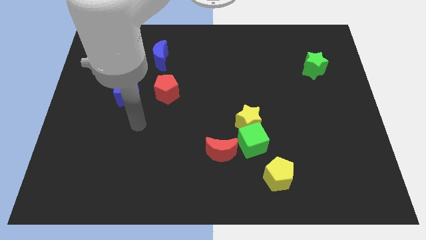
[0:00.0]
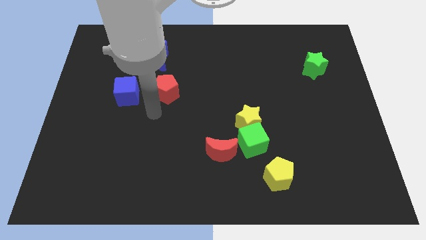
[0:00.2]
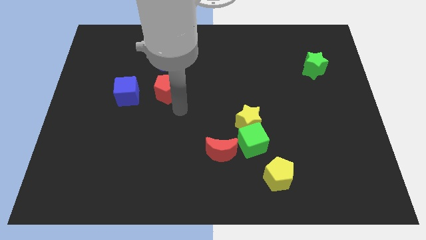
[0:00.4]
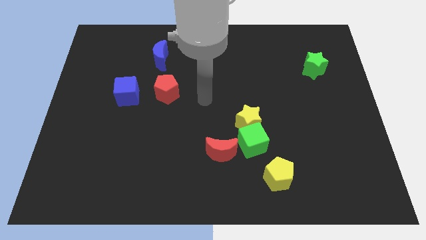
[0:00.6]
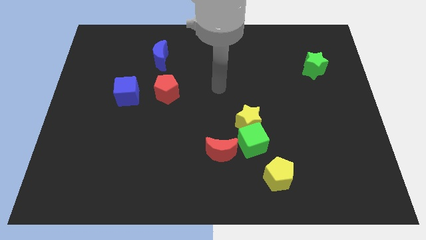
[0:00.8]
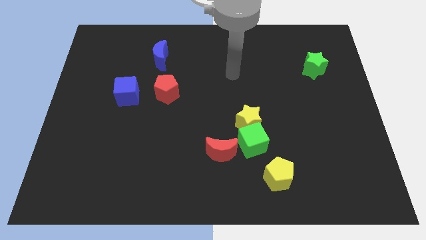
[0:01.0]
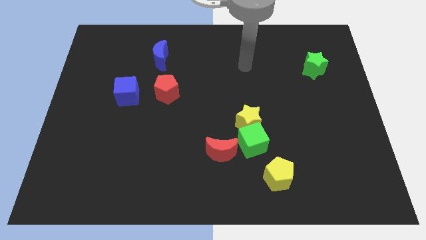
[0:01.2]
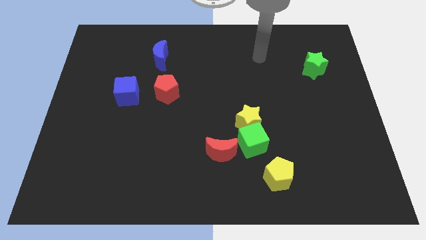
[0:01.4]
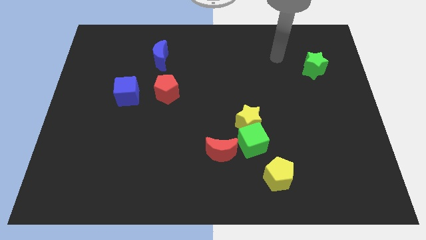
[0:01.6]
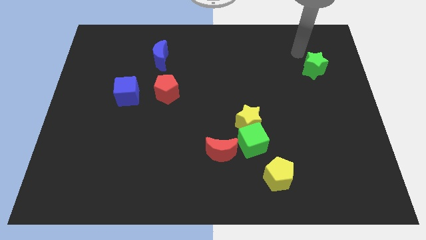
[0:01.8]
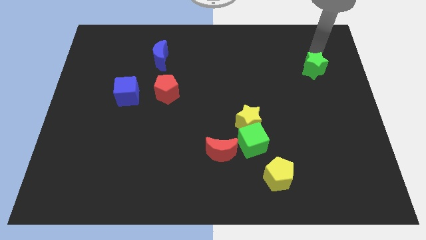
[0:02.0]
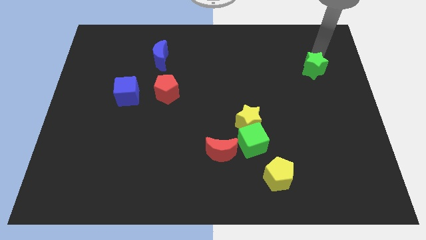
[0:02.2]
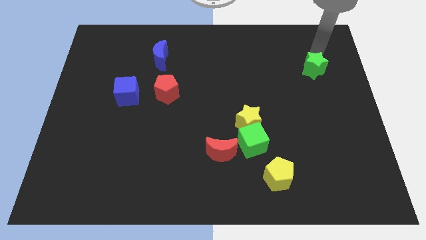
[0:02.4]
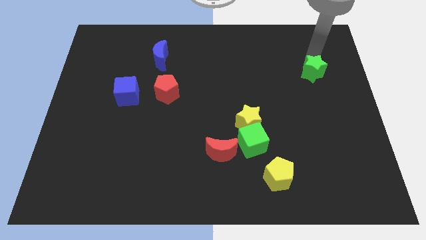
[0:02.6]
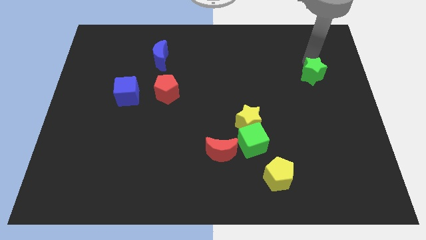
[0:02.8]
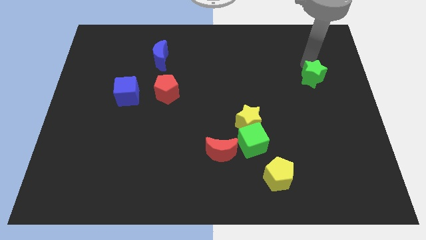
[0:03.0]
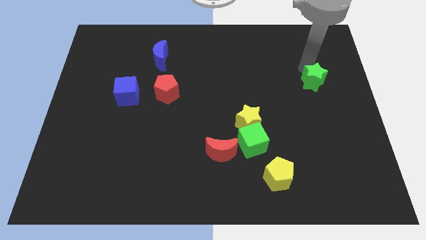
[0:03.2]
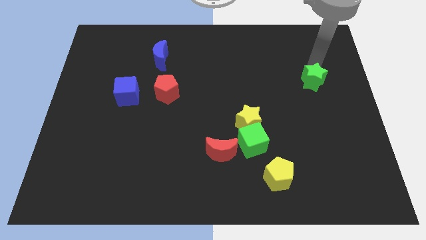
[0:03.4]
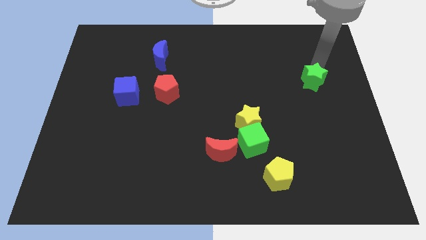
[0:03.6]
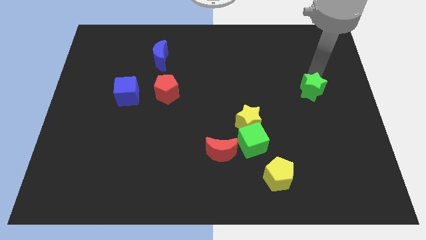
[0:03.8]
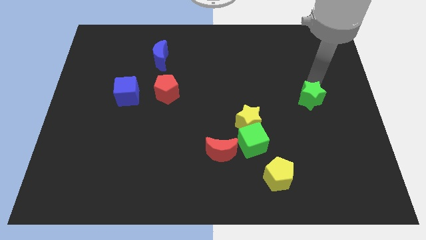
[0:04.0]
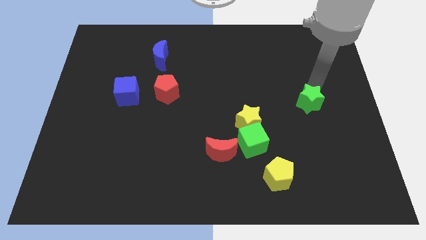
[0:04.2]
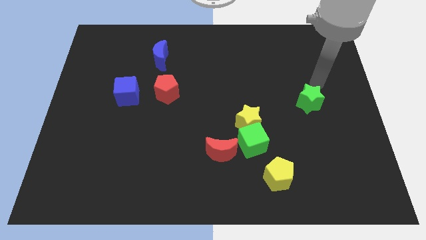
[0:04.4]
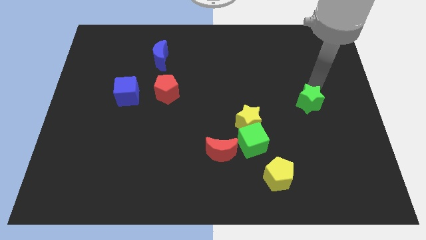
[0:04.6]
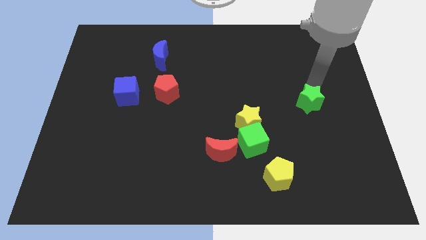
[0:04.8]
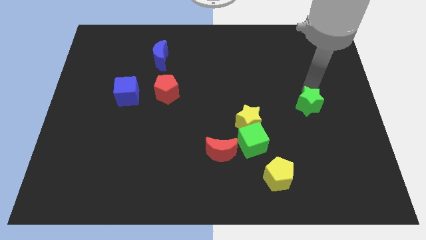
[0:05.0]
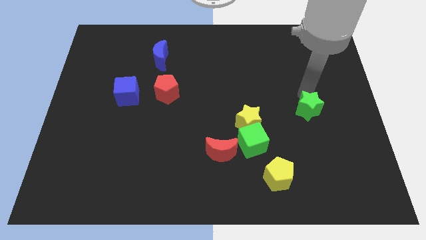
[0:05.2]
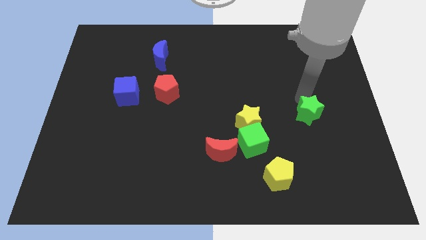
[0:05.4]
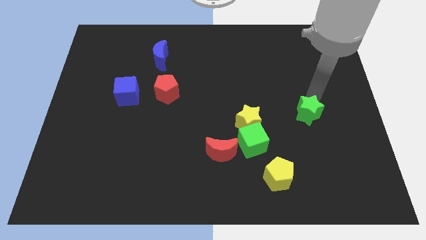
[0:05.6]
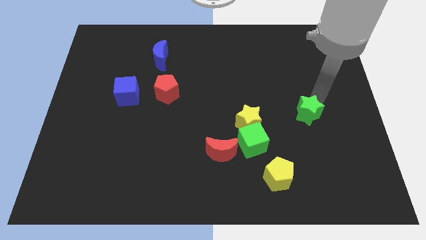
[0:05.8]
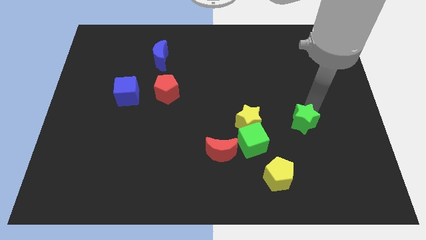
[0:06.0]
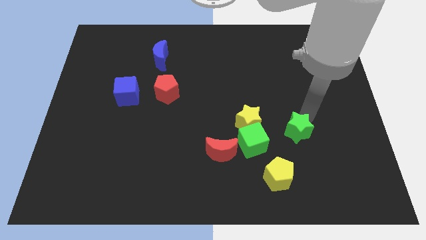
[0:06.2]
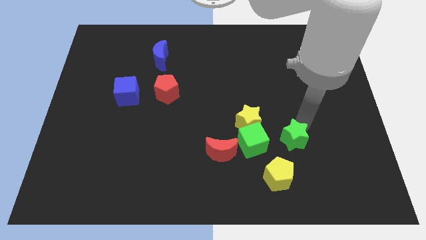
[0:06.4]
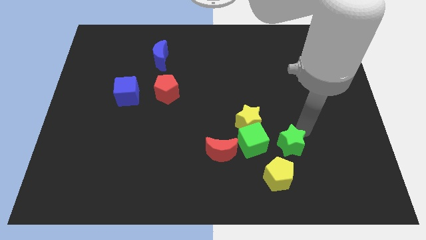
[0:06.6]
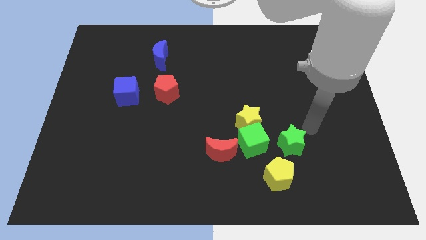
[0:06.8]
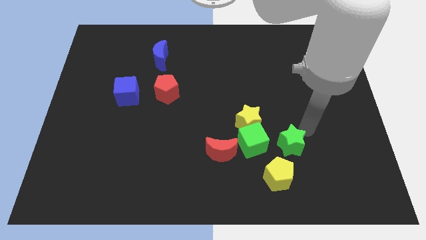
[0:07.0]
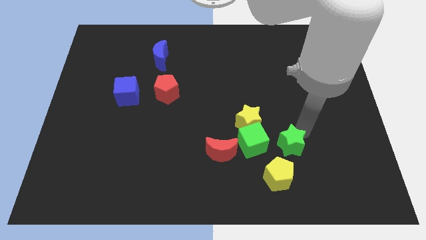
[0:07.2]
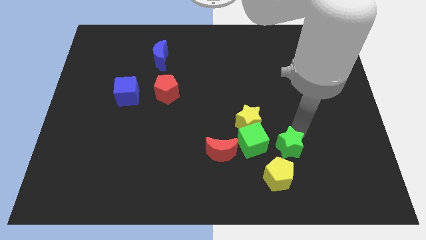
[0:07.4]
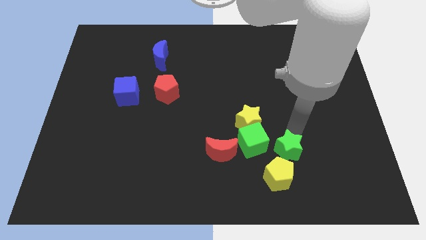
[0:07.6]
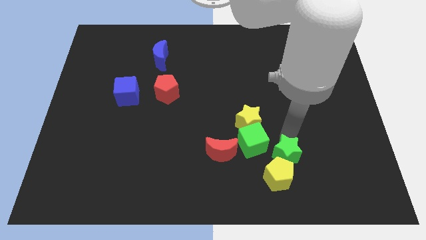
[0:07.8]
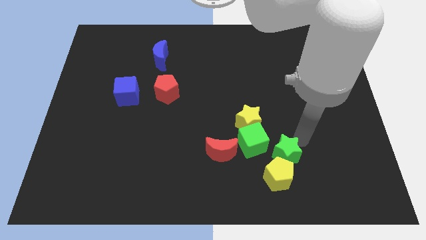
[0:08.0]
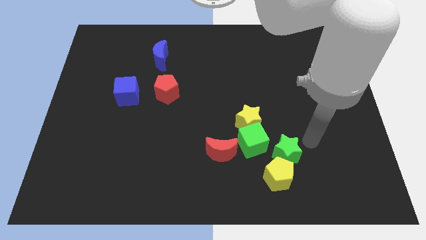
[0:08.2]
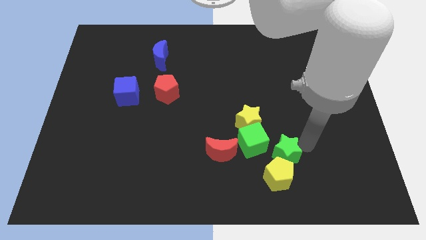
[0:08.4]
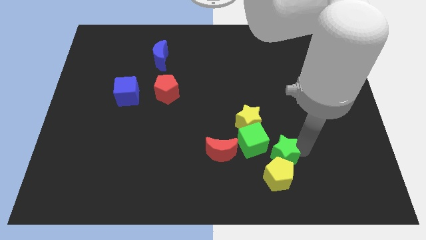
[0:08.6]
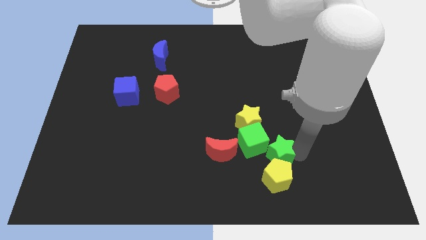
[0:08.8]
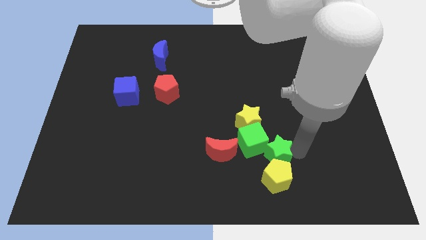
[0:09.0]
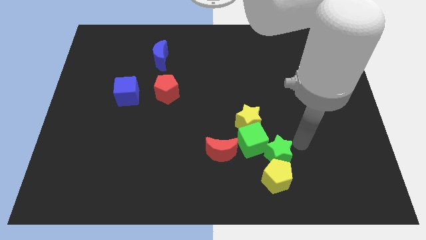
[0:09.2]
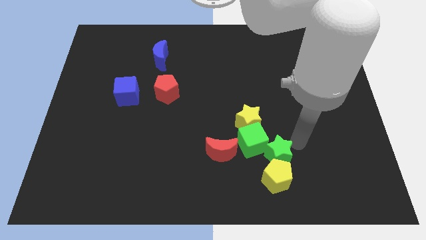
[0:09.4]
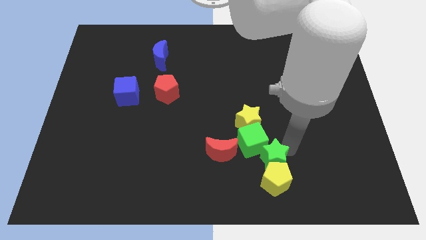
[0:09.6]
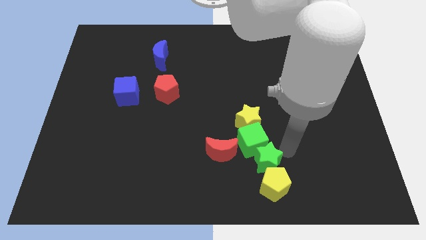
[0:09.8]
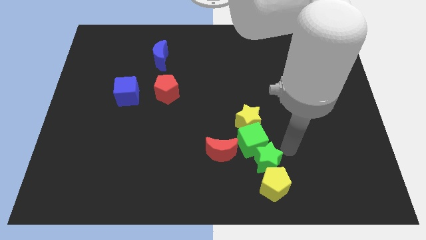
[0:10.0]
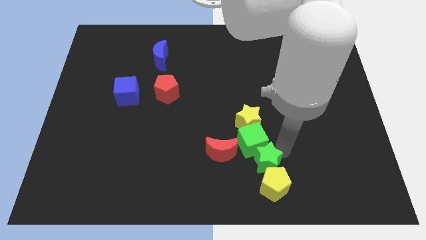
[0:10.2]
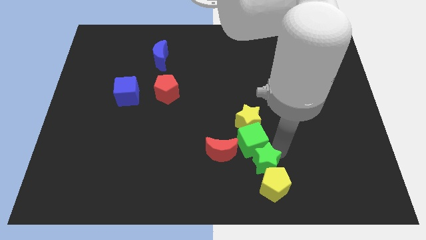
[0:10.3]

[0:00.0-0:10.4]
put the green star diagonally down and to the right of the red moon

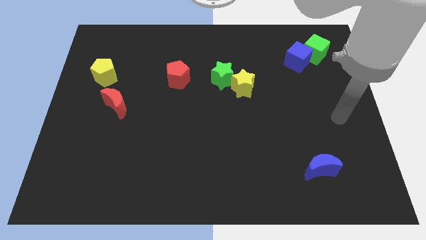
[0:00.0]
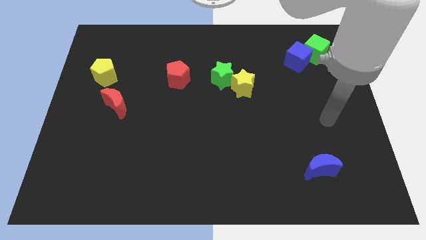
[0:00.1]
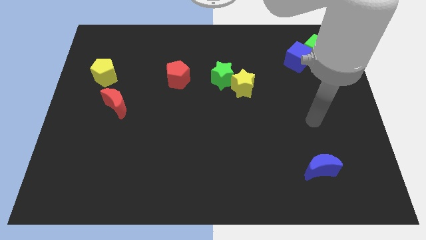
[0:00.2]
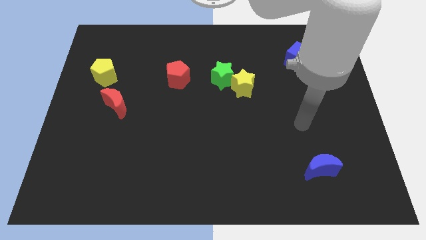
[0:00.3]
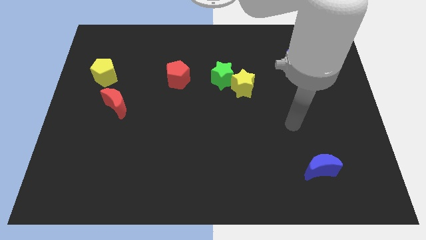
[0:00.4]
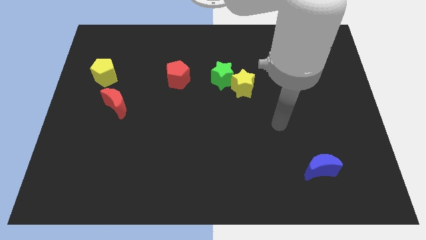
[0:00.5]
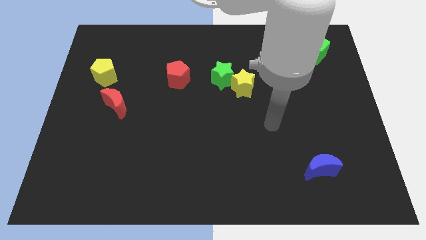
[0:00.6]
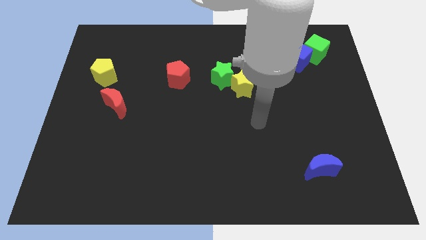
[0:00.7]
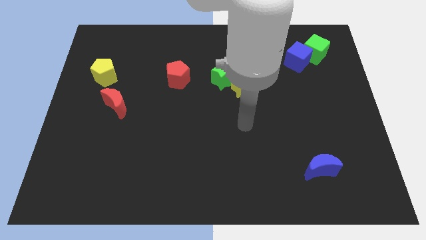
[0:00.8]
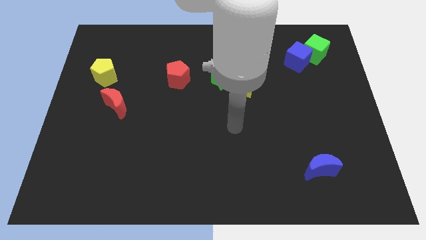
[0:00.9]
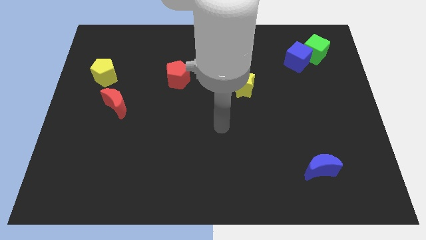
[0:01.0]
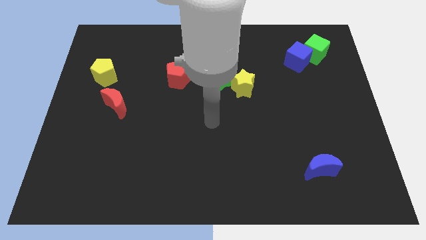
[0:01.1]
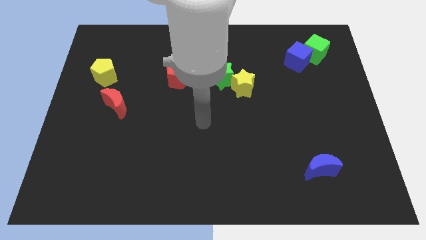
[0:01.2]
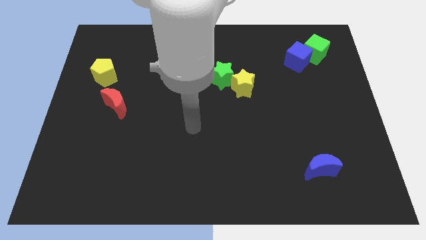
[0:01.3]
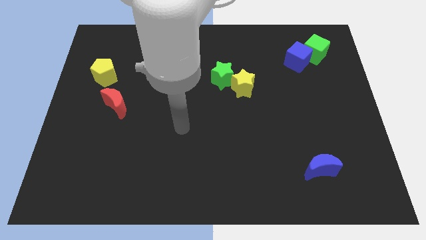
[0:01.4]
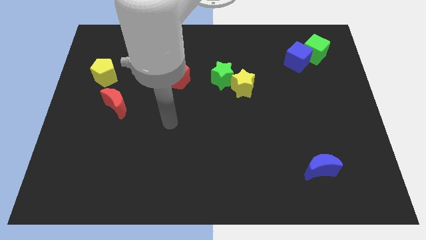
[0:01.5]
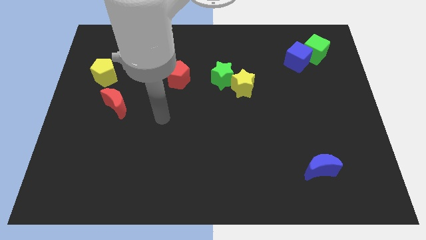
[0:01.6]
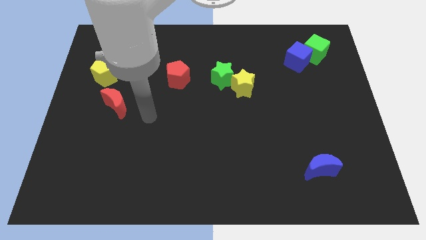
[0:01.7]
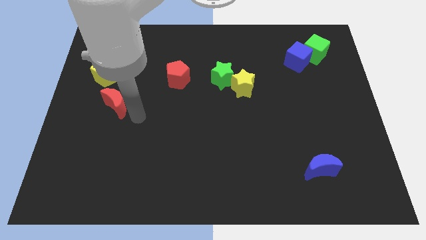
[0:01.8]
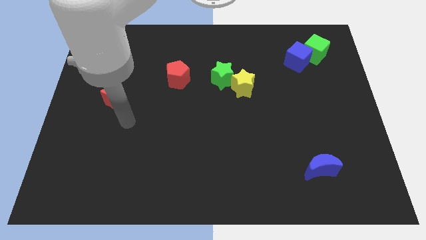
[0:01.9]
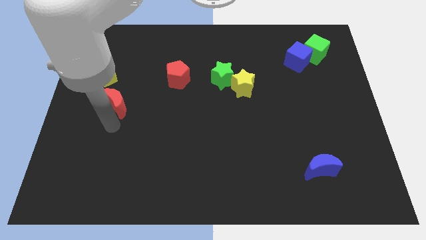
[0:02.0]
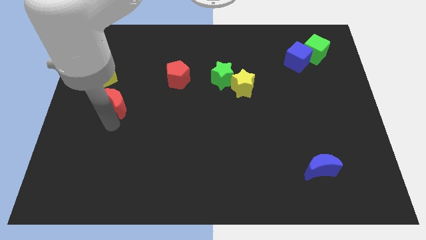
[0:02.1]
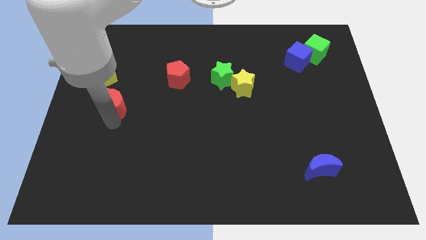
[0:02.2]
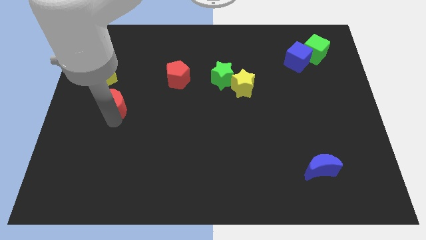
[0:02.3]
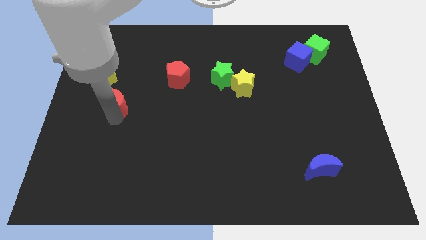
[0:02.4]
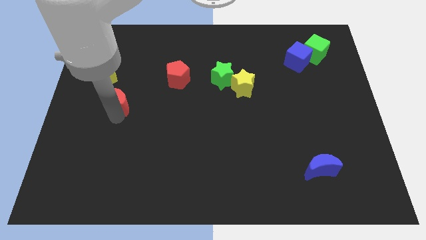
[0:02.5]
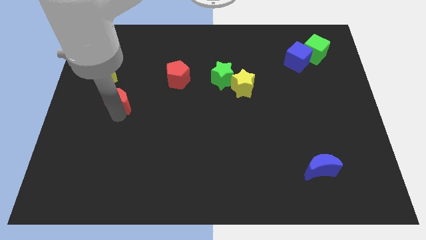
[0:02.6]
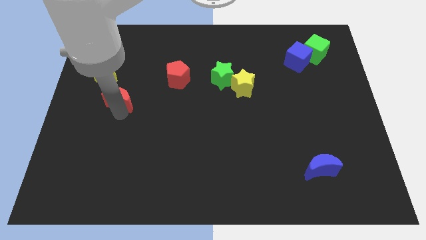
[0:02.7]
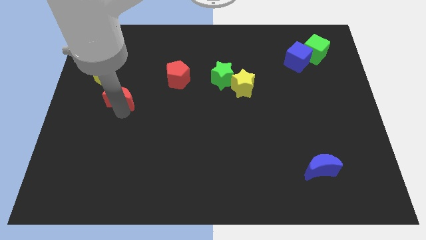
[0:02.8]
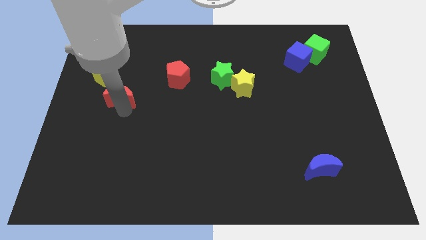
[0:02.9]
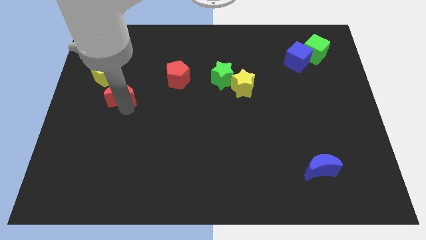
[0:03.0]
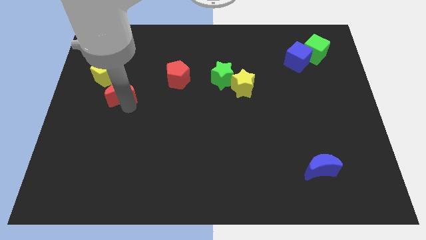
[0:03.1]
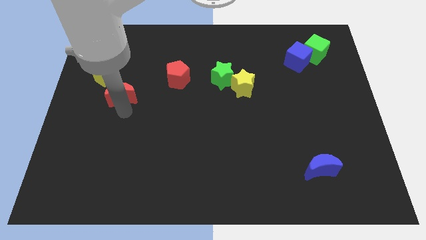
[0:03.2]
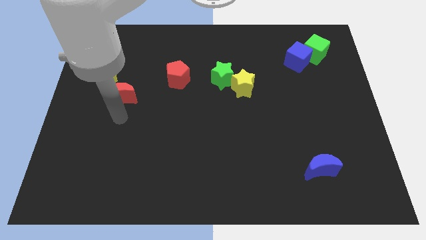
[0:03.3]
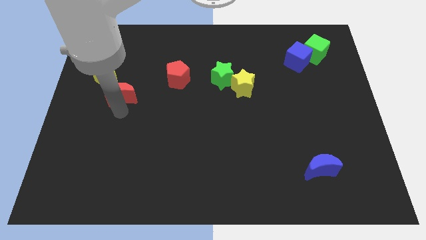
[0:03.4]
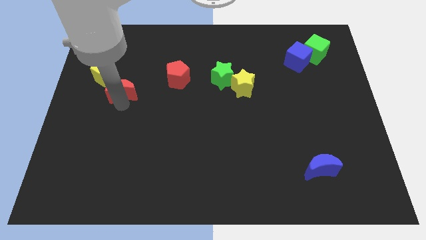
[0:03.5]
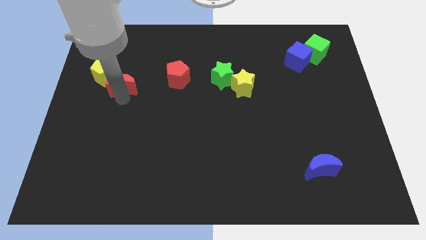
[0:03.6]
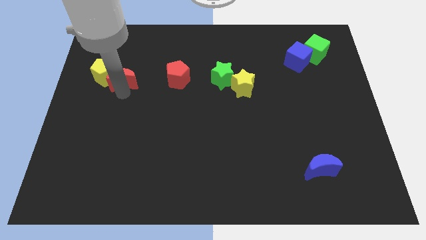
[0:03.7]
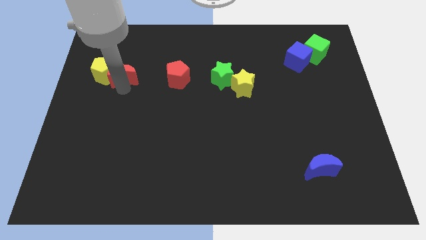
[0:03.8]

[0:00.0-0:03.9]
move the red moon to the top right of the yellow pentagon
